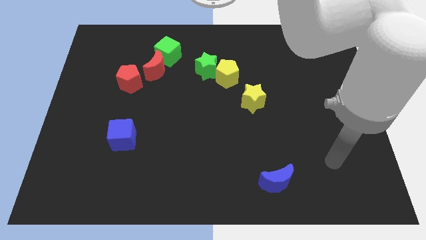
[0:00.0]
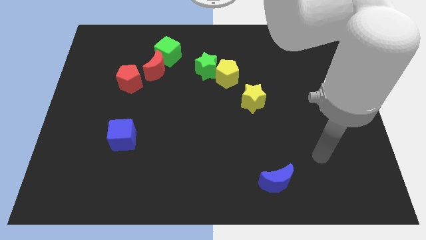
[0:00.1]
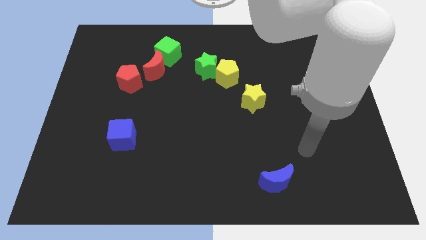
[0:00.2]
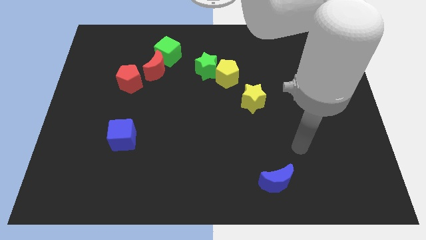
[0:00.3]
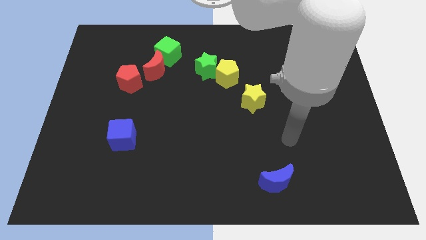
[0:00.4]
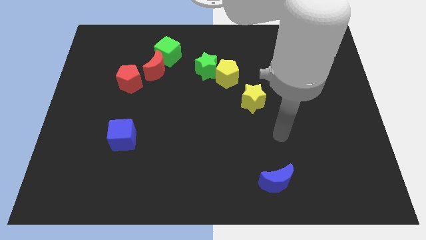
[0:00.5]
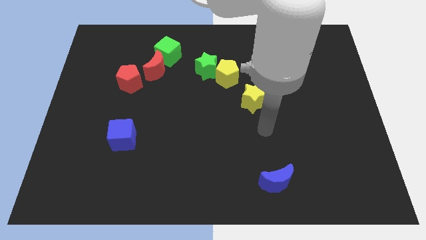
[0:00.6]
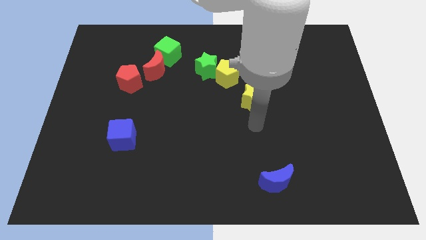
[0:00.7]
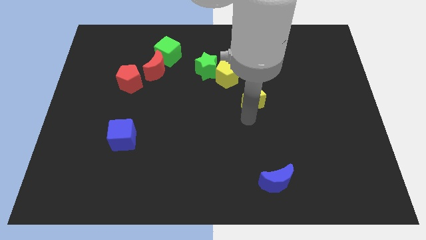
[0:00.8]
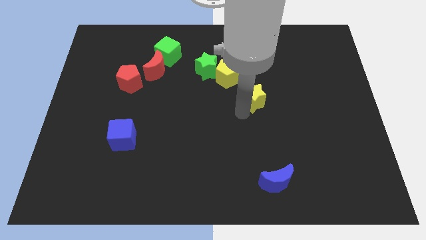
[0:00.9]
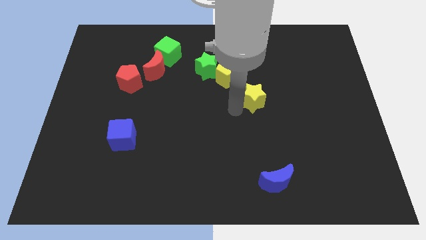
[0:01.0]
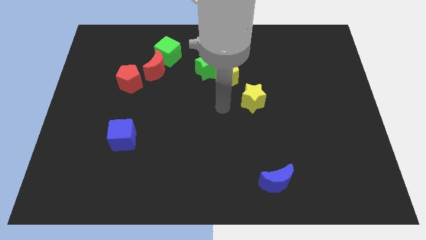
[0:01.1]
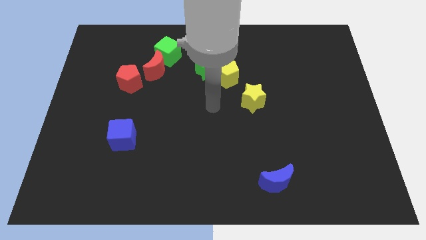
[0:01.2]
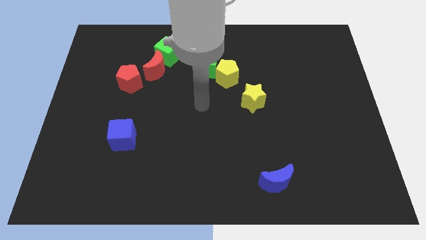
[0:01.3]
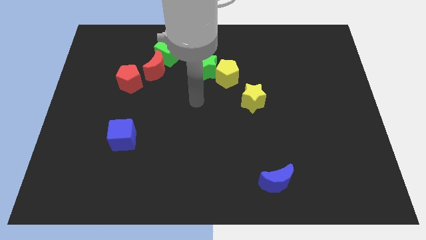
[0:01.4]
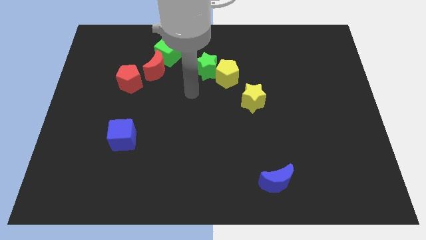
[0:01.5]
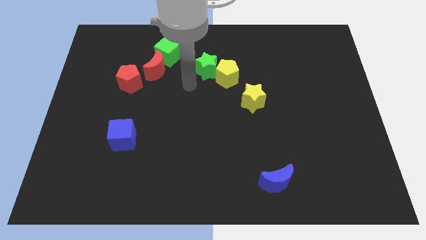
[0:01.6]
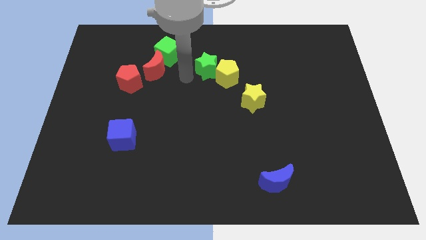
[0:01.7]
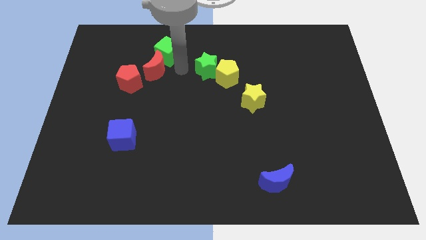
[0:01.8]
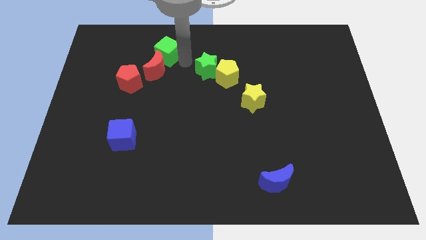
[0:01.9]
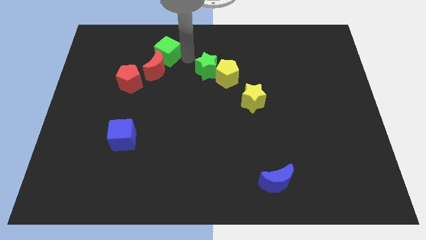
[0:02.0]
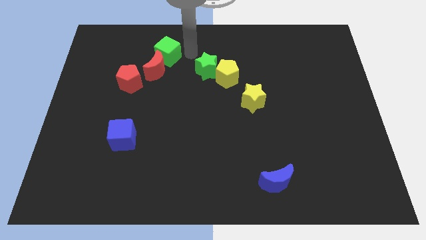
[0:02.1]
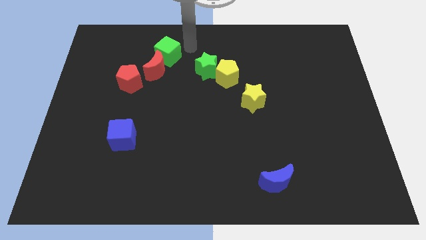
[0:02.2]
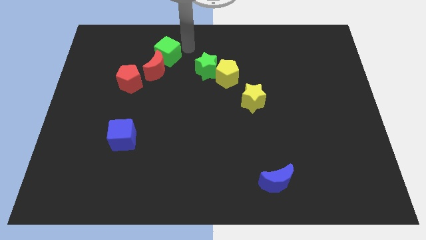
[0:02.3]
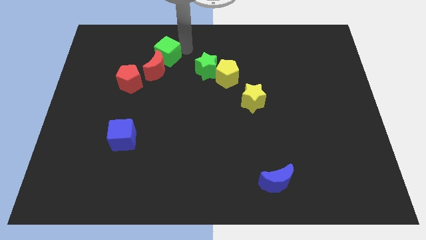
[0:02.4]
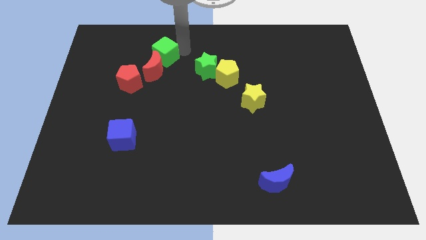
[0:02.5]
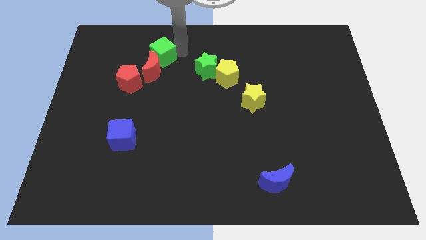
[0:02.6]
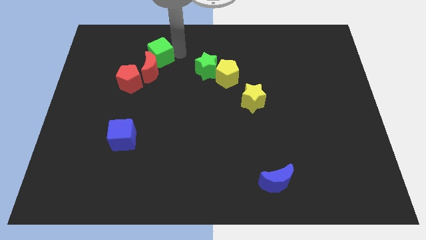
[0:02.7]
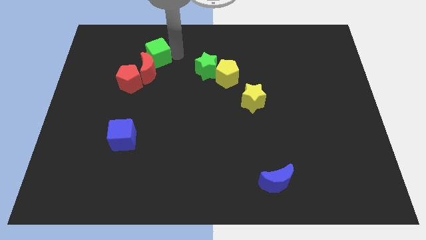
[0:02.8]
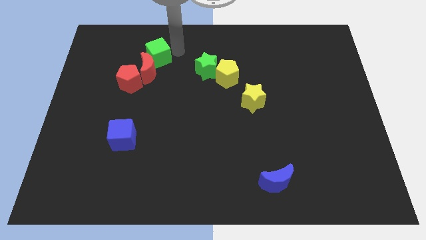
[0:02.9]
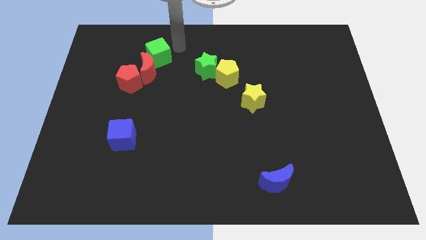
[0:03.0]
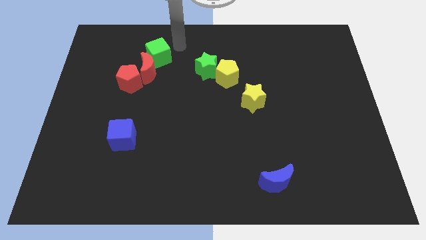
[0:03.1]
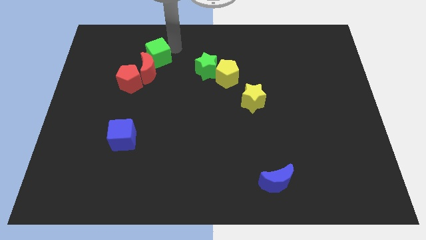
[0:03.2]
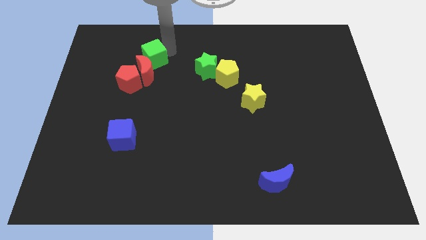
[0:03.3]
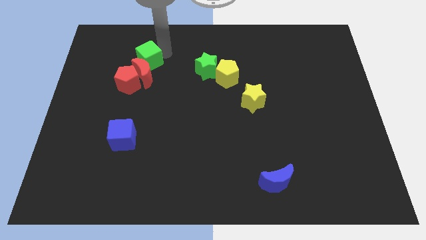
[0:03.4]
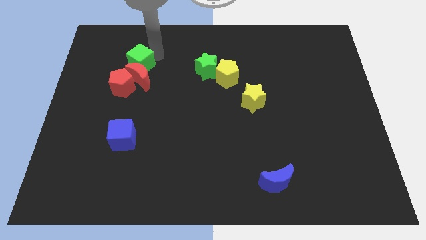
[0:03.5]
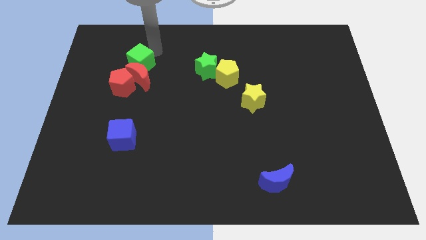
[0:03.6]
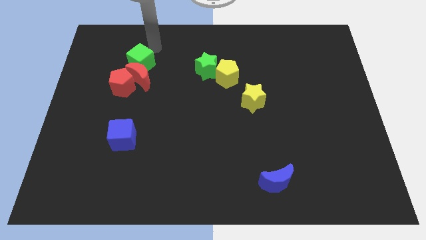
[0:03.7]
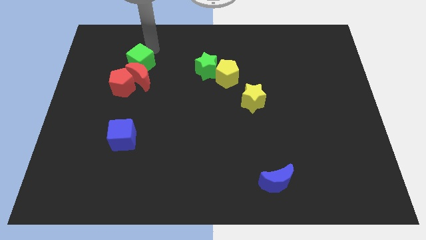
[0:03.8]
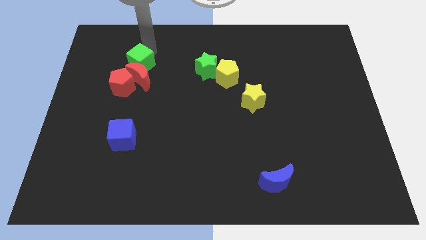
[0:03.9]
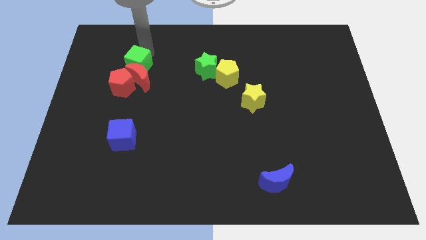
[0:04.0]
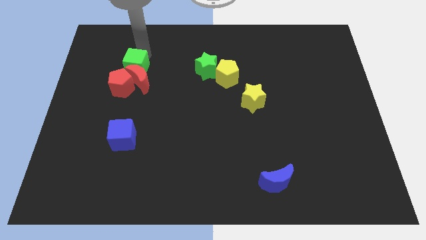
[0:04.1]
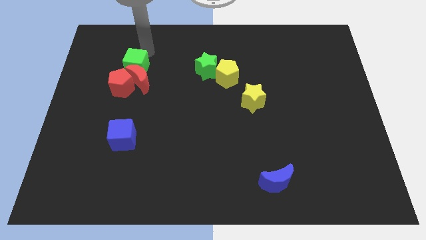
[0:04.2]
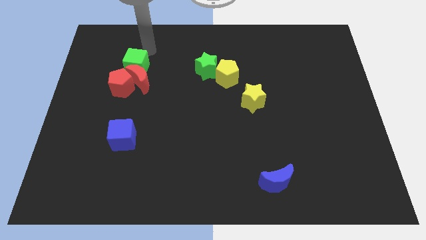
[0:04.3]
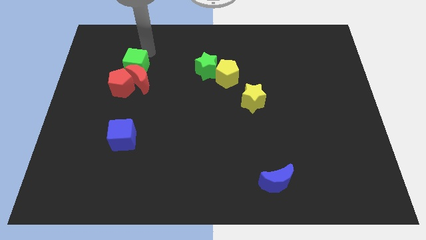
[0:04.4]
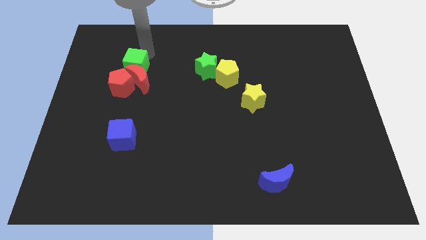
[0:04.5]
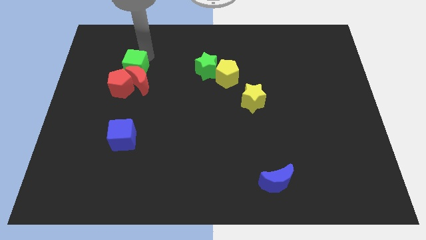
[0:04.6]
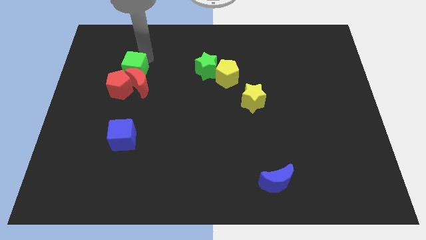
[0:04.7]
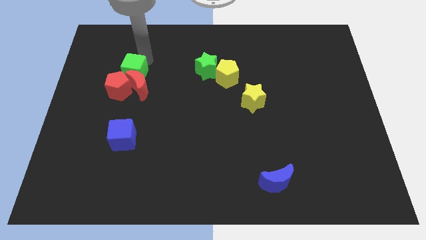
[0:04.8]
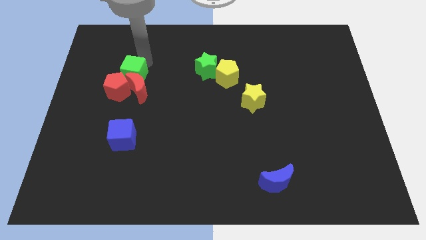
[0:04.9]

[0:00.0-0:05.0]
put the green cube to the red pentagon

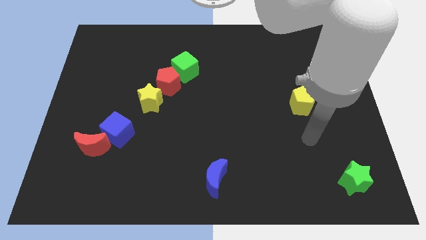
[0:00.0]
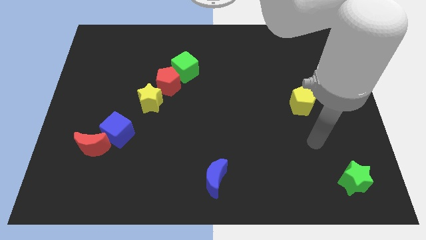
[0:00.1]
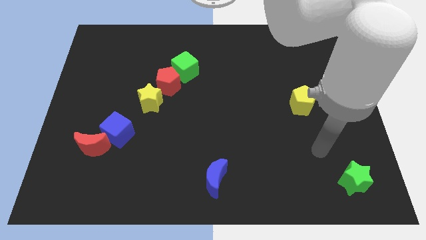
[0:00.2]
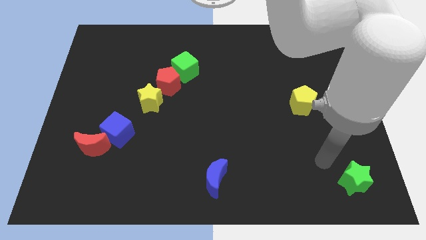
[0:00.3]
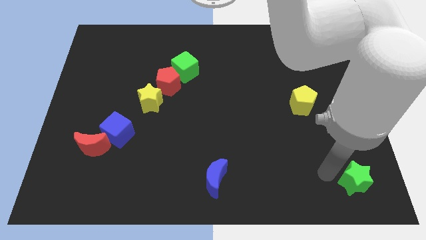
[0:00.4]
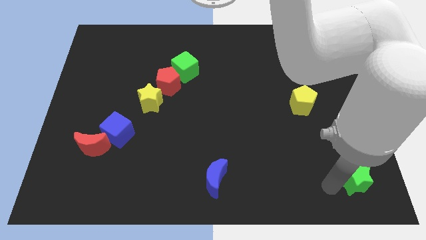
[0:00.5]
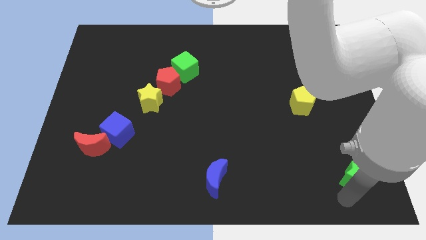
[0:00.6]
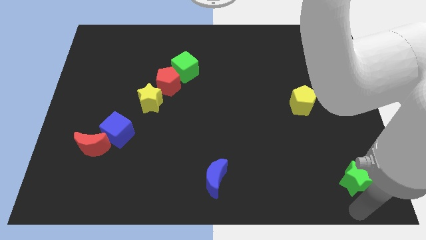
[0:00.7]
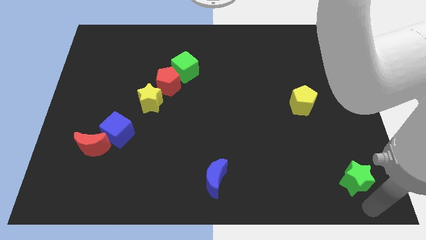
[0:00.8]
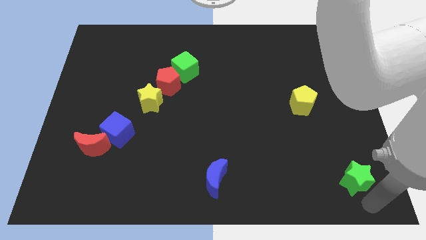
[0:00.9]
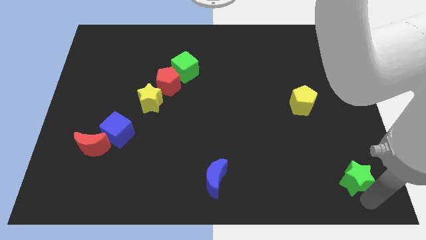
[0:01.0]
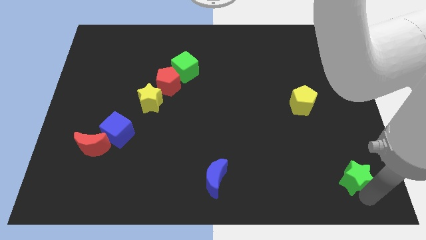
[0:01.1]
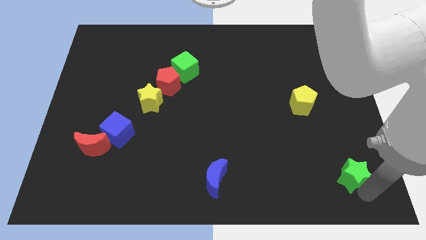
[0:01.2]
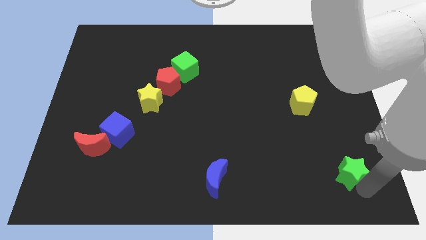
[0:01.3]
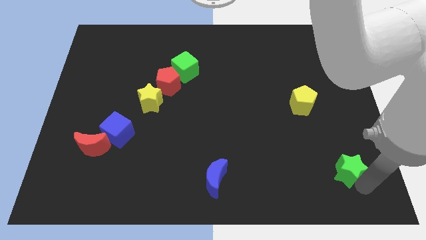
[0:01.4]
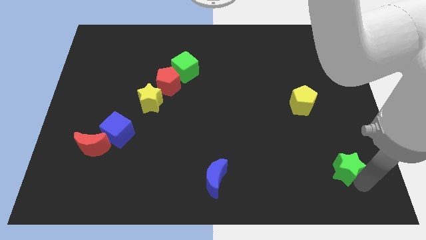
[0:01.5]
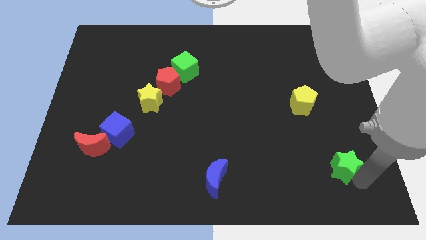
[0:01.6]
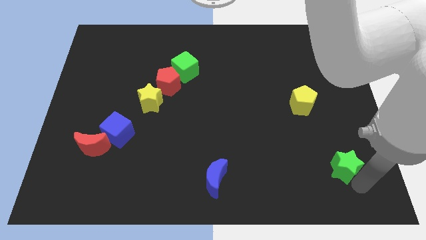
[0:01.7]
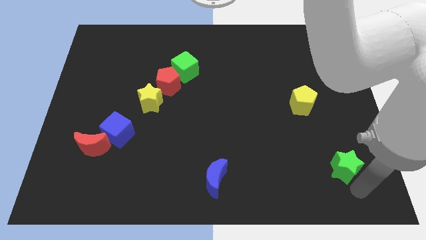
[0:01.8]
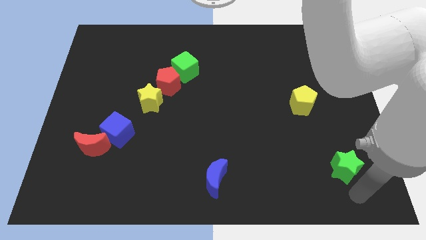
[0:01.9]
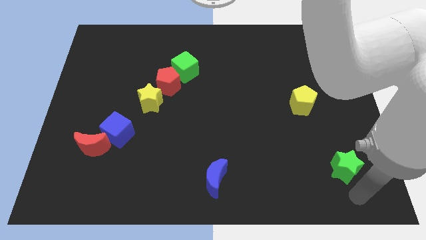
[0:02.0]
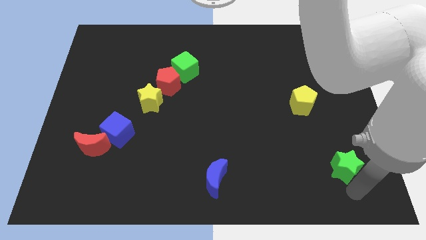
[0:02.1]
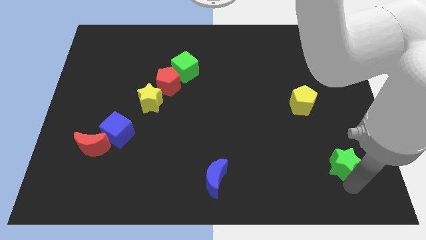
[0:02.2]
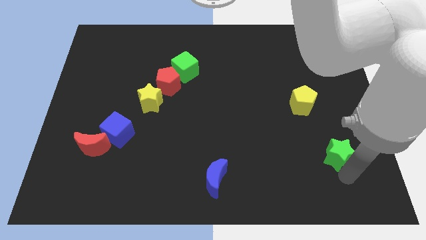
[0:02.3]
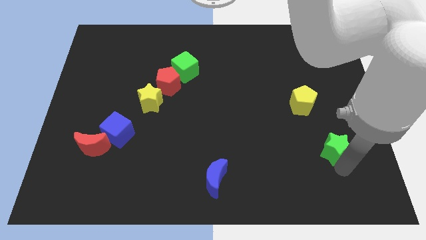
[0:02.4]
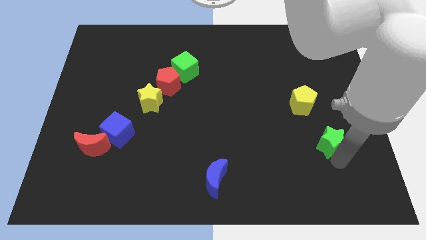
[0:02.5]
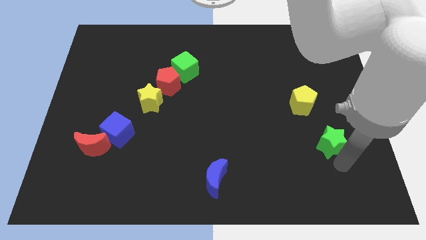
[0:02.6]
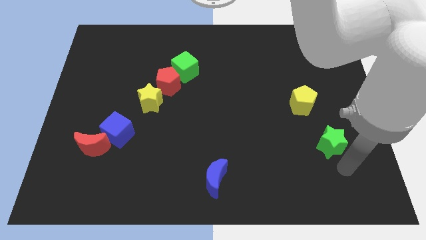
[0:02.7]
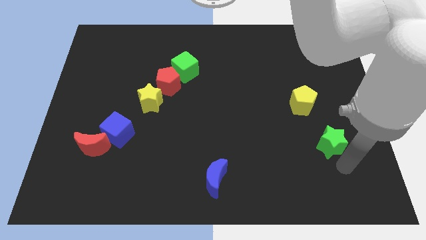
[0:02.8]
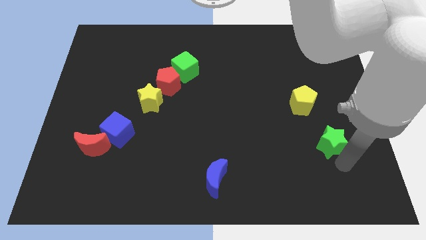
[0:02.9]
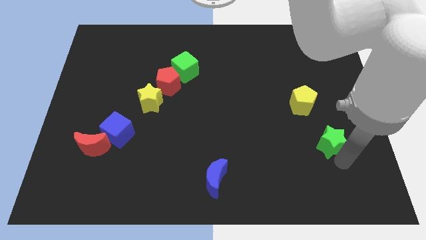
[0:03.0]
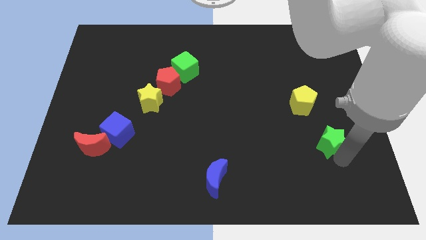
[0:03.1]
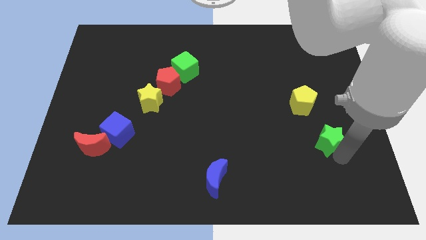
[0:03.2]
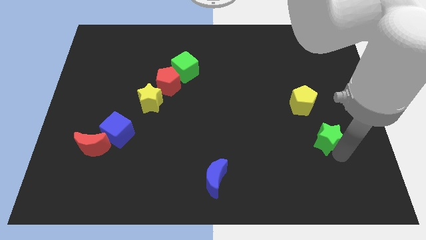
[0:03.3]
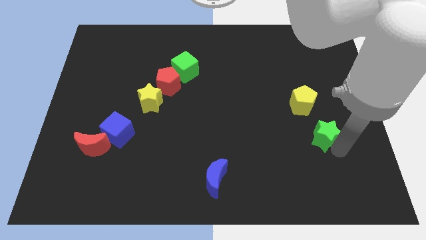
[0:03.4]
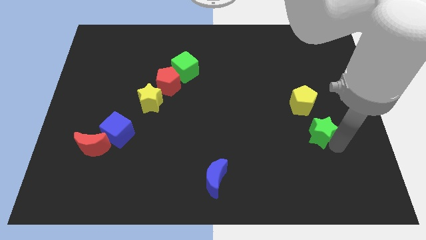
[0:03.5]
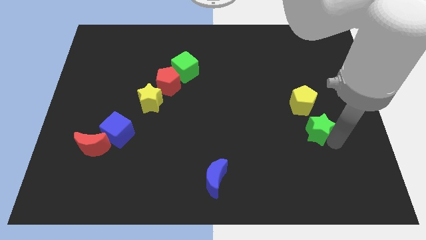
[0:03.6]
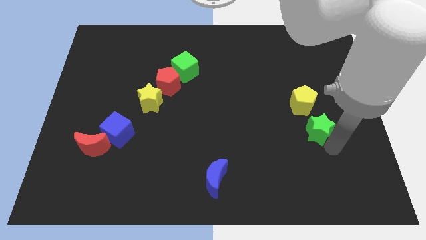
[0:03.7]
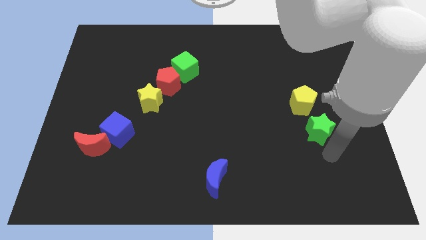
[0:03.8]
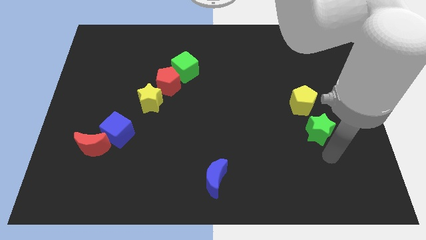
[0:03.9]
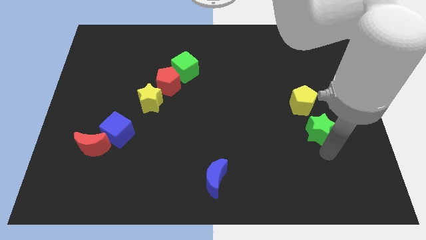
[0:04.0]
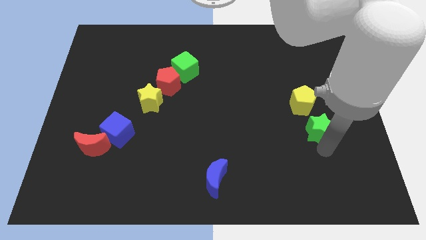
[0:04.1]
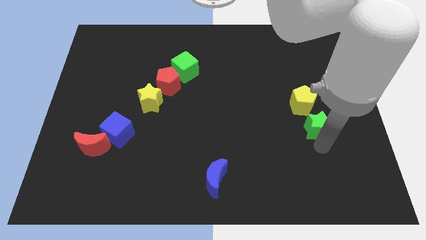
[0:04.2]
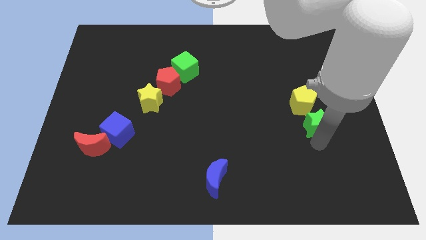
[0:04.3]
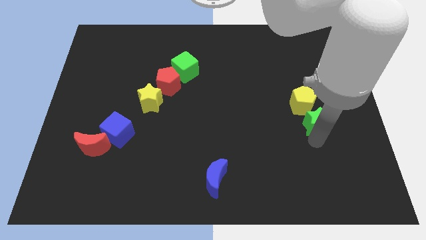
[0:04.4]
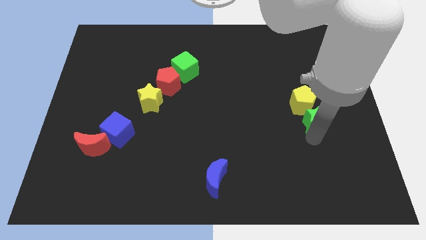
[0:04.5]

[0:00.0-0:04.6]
slide the green star next to the yellow pentagon
